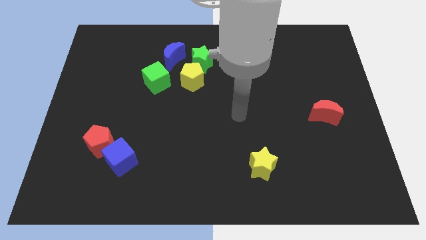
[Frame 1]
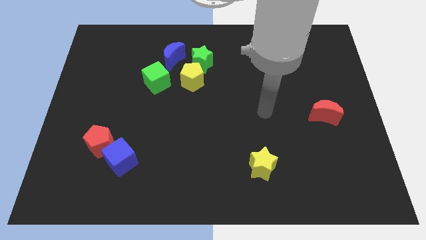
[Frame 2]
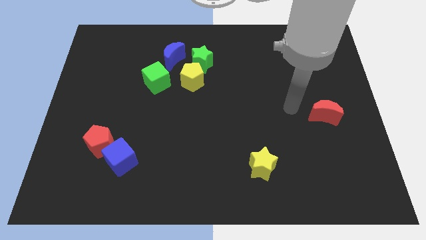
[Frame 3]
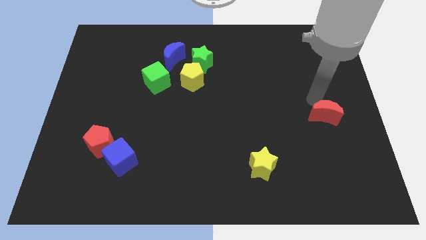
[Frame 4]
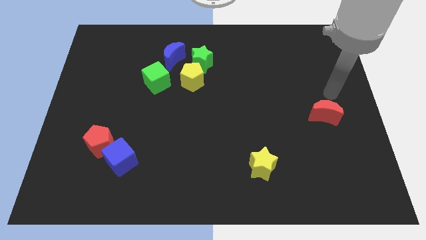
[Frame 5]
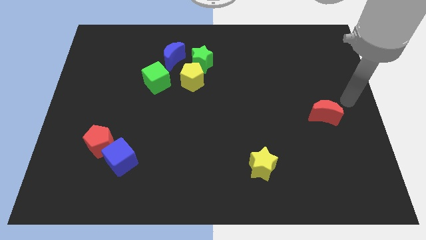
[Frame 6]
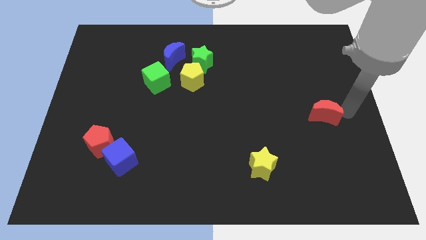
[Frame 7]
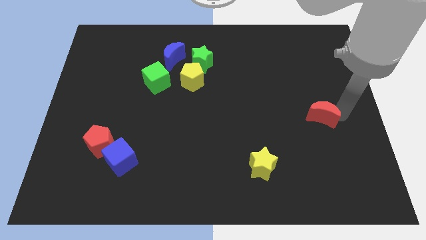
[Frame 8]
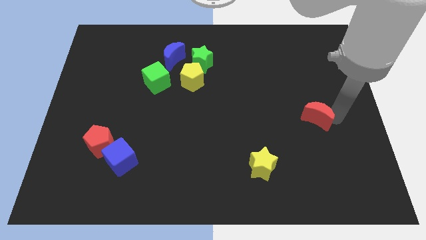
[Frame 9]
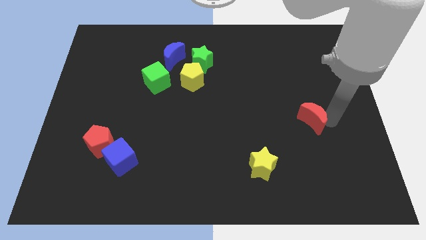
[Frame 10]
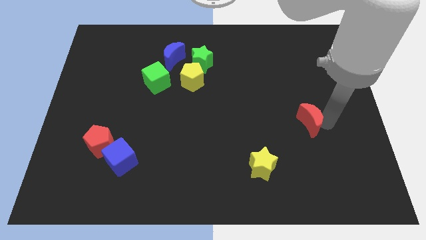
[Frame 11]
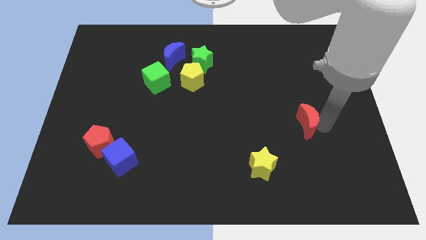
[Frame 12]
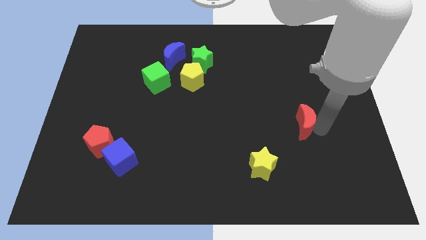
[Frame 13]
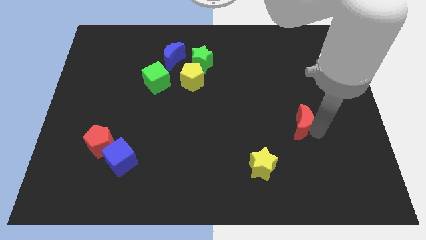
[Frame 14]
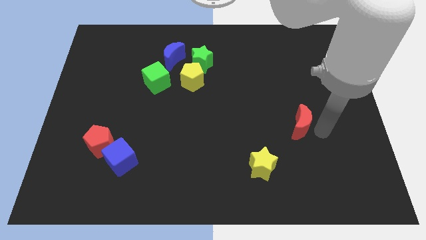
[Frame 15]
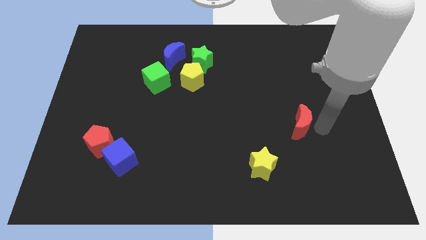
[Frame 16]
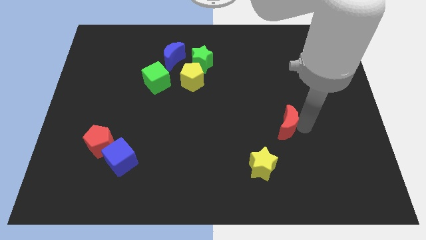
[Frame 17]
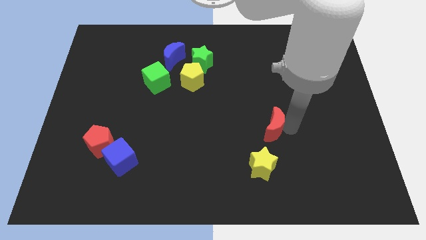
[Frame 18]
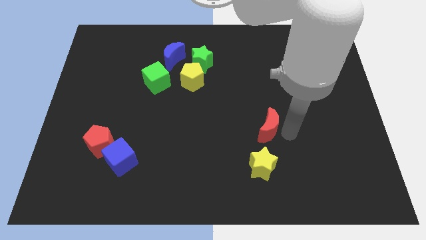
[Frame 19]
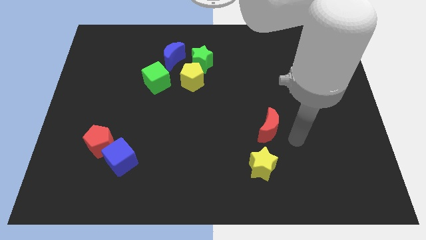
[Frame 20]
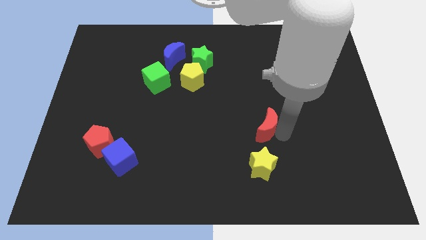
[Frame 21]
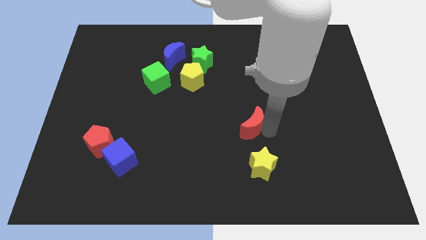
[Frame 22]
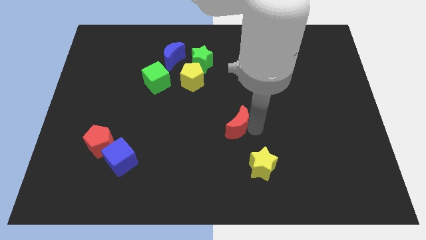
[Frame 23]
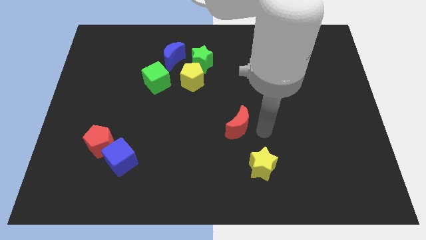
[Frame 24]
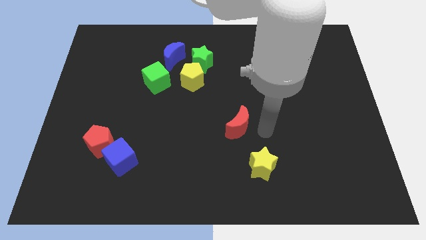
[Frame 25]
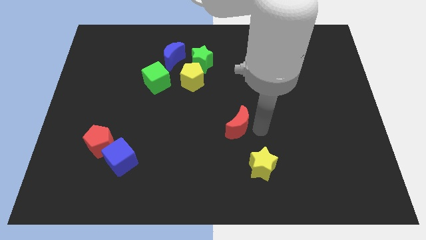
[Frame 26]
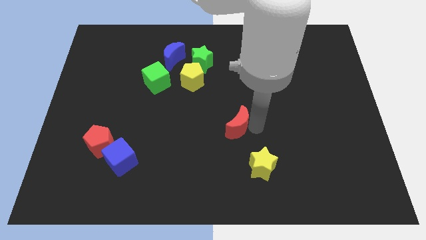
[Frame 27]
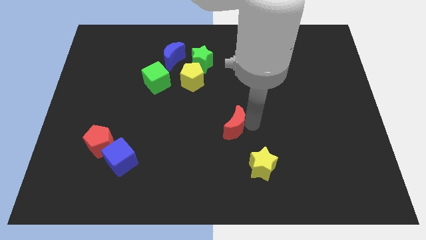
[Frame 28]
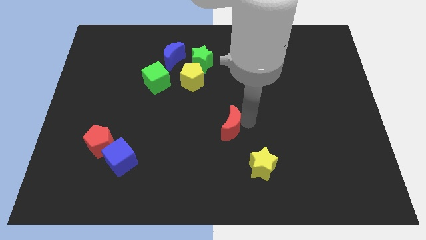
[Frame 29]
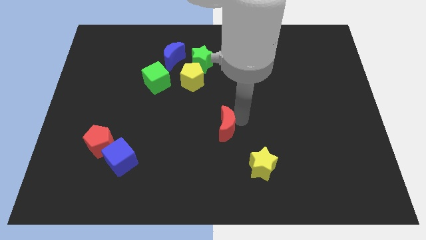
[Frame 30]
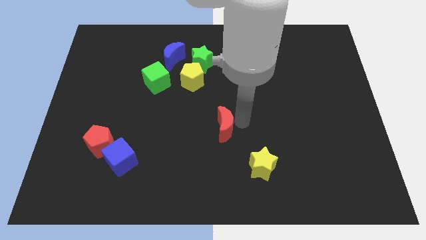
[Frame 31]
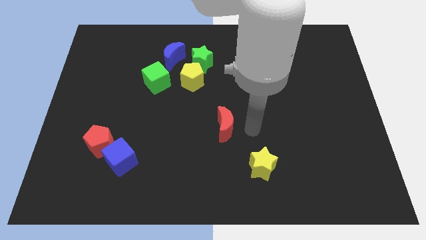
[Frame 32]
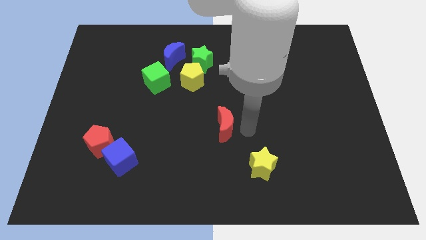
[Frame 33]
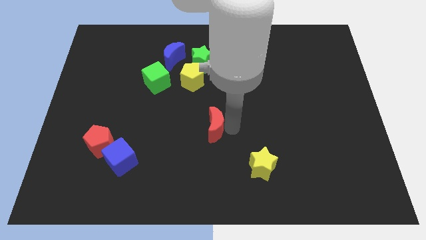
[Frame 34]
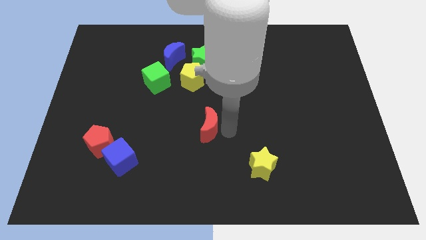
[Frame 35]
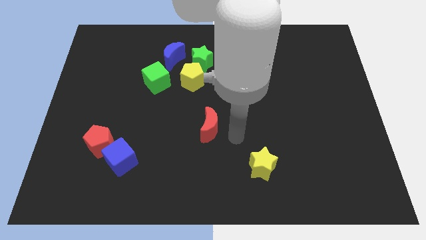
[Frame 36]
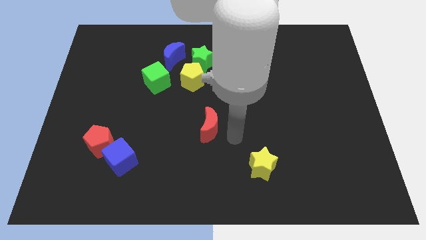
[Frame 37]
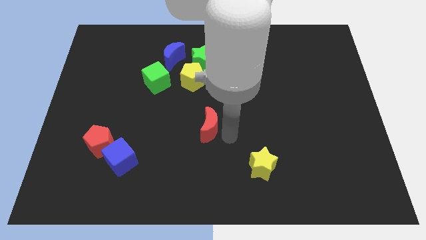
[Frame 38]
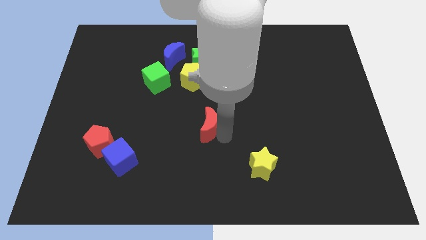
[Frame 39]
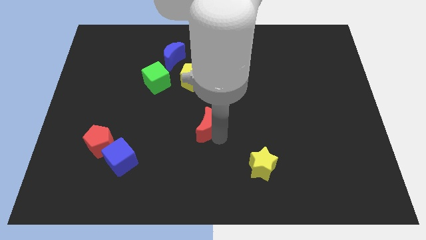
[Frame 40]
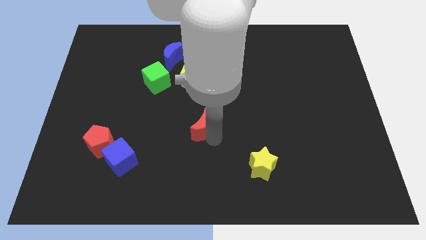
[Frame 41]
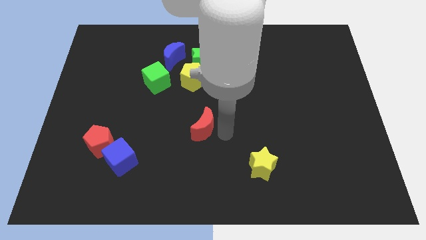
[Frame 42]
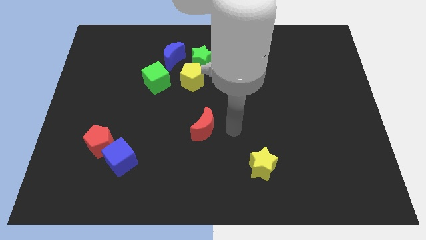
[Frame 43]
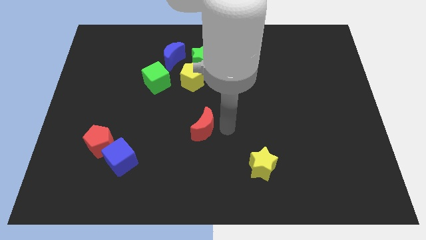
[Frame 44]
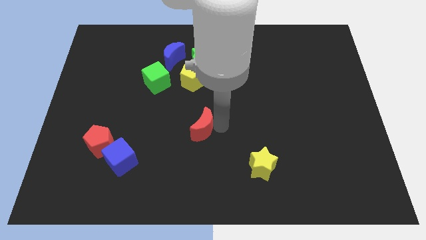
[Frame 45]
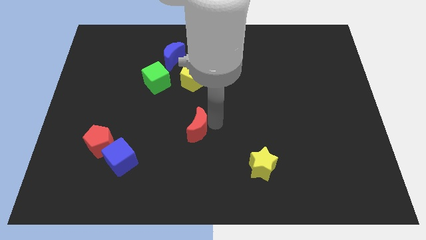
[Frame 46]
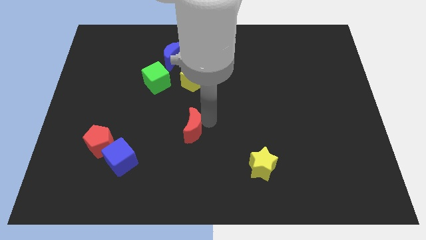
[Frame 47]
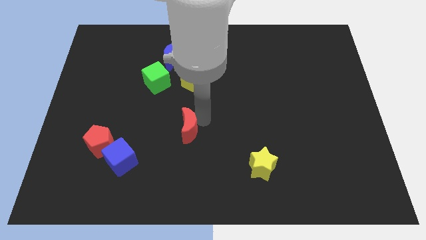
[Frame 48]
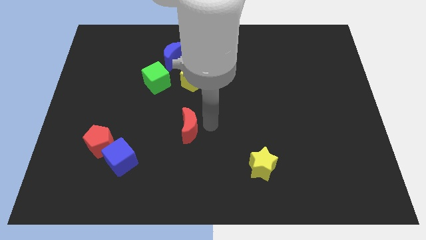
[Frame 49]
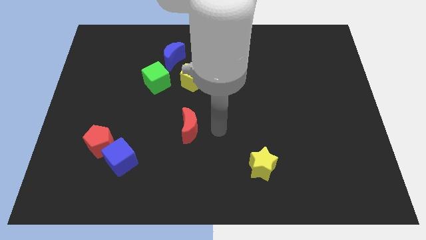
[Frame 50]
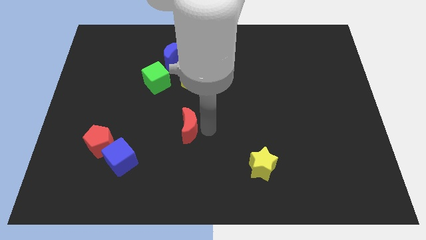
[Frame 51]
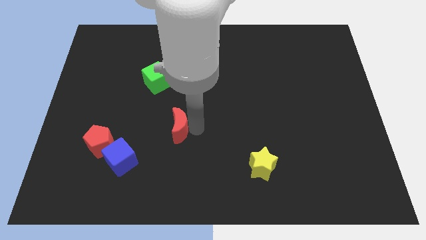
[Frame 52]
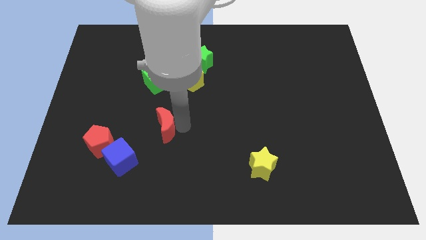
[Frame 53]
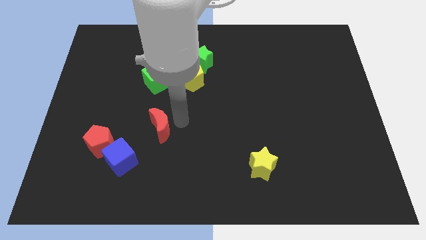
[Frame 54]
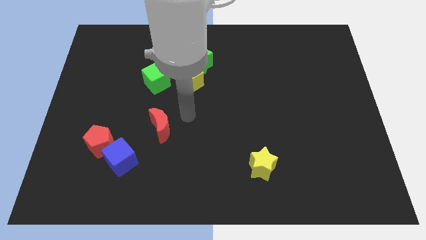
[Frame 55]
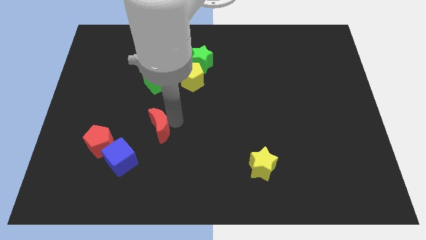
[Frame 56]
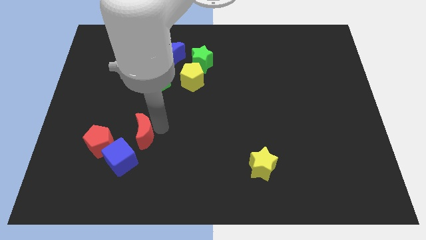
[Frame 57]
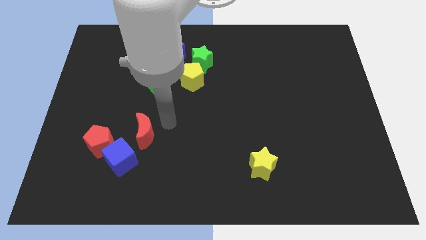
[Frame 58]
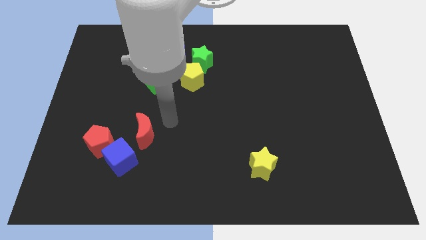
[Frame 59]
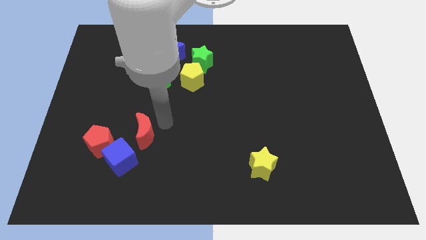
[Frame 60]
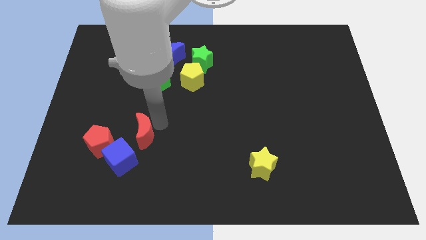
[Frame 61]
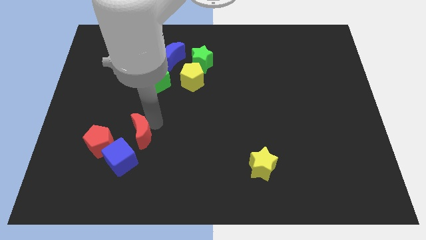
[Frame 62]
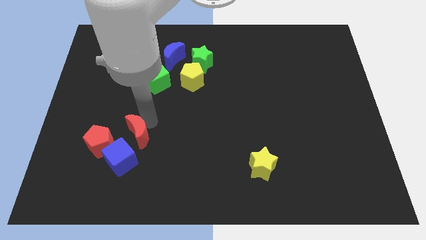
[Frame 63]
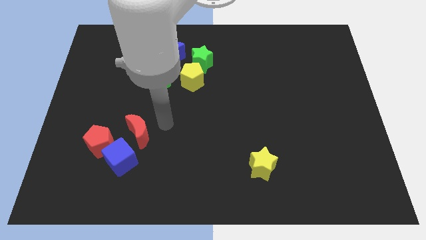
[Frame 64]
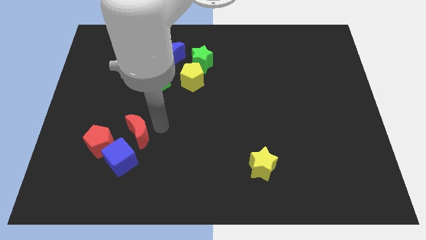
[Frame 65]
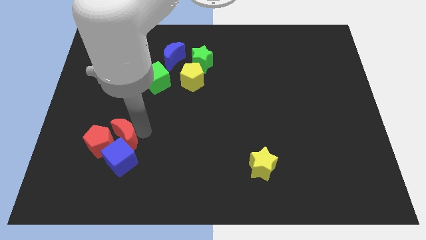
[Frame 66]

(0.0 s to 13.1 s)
push the red moon next to the red pentagon

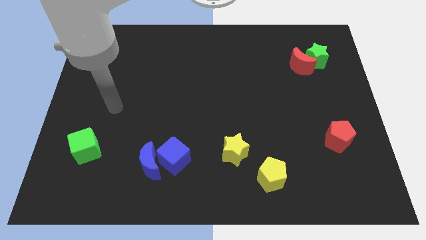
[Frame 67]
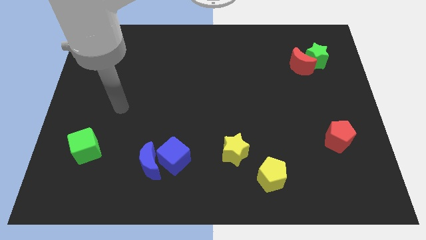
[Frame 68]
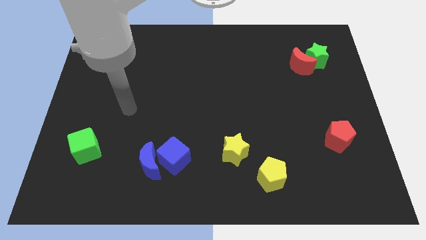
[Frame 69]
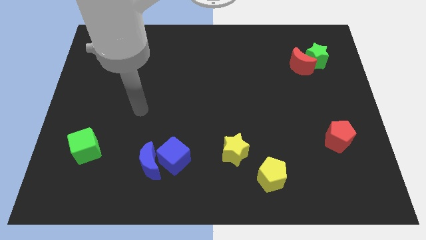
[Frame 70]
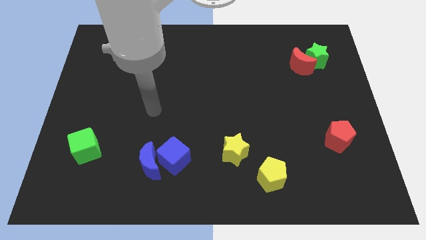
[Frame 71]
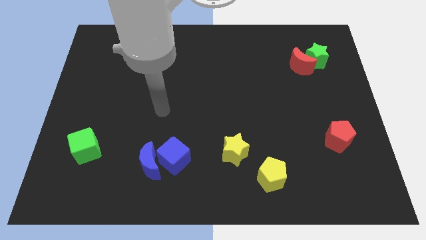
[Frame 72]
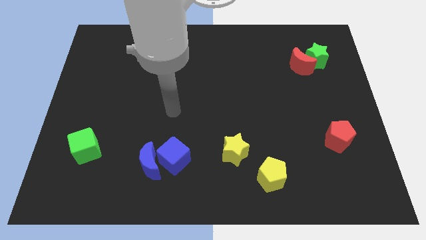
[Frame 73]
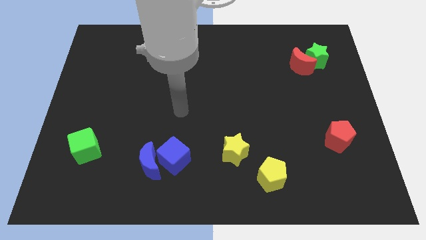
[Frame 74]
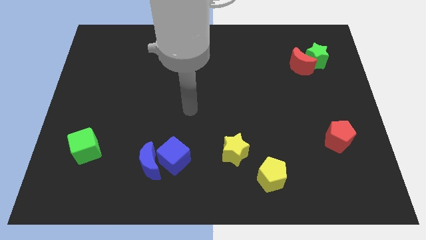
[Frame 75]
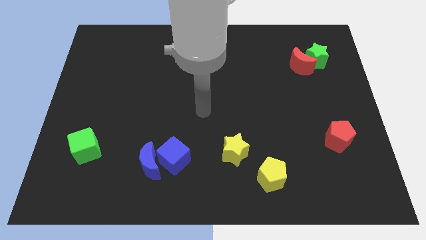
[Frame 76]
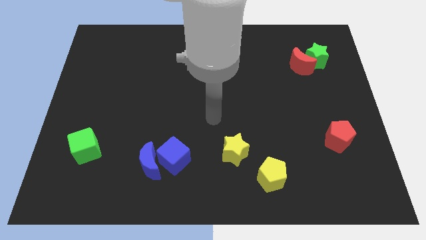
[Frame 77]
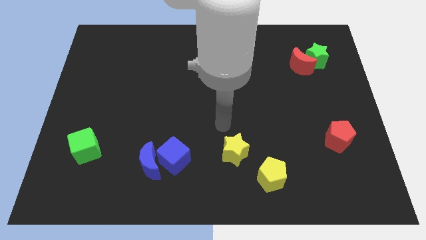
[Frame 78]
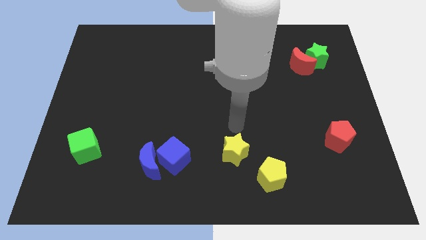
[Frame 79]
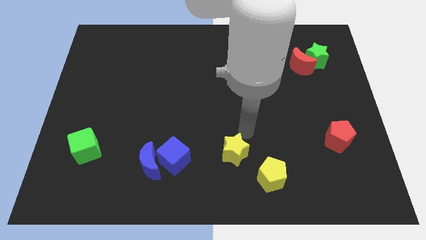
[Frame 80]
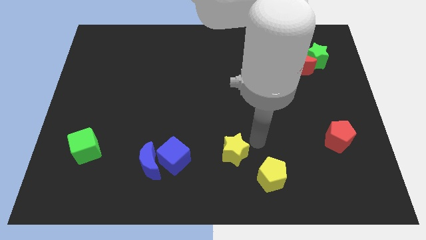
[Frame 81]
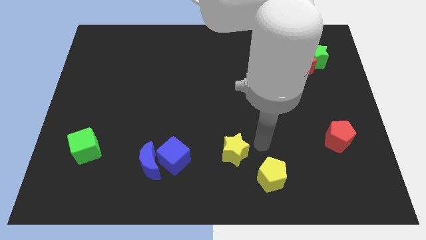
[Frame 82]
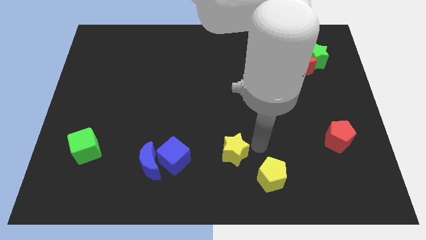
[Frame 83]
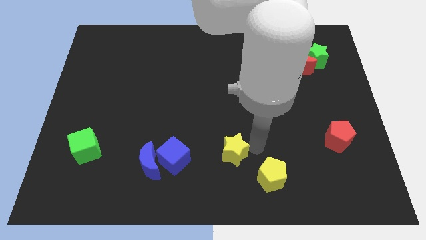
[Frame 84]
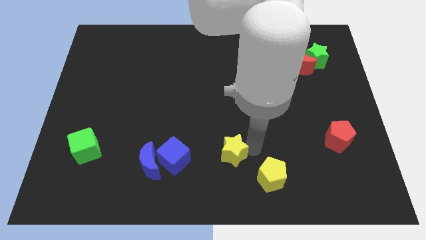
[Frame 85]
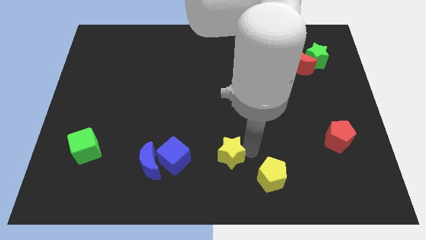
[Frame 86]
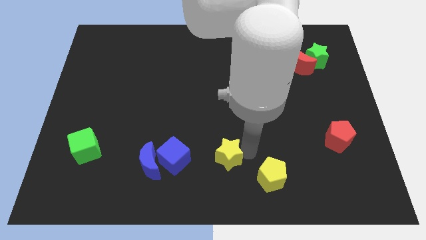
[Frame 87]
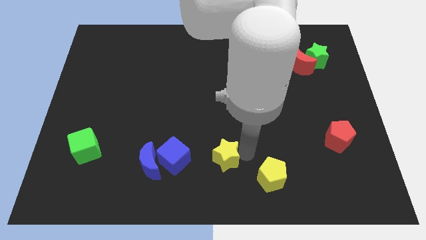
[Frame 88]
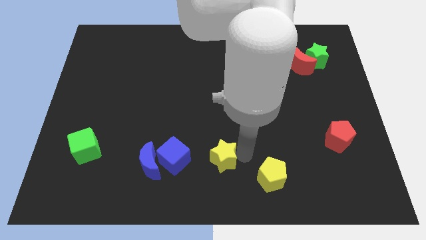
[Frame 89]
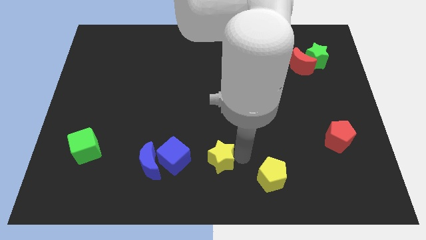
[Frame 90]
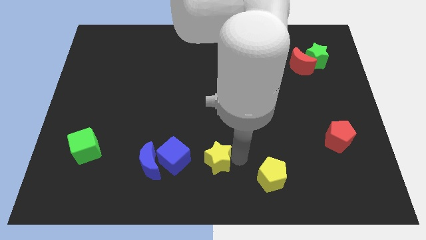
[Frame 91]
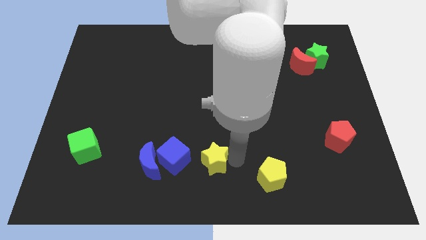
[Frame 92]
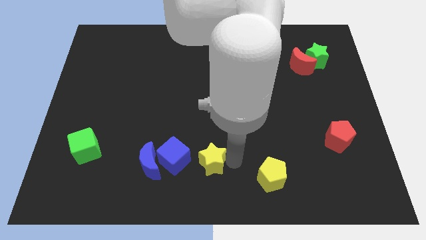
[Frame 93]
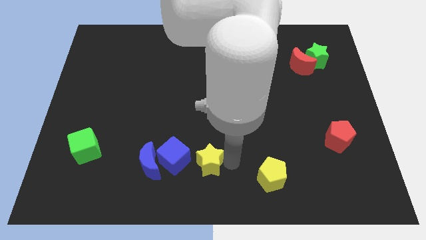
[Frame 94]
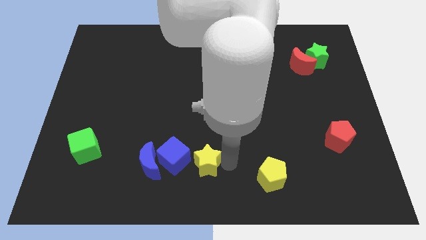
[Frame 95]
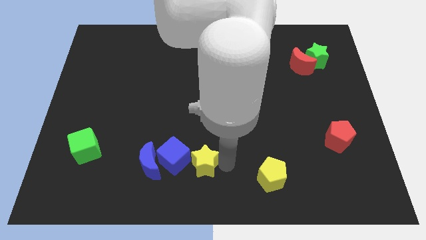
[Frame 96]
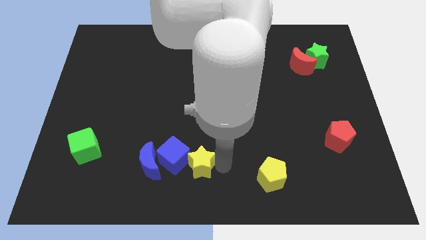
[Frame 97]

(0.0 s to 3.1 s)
push the yellow star towards the blue cube
